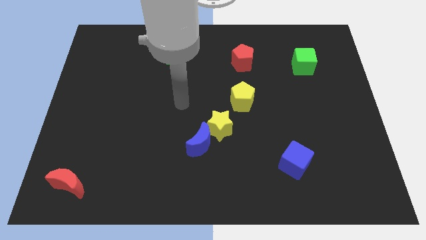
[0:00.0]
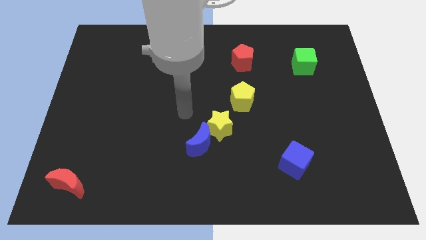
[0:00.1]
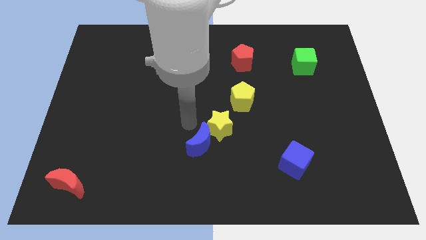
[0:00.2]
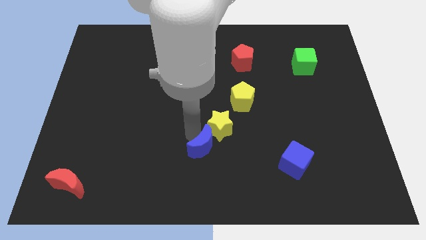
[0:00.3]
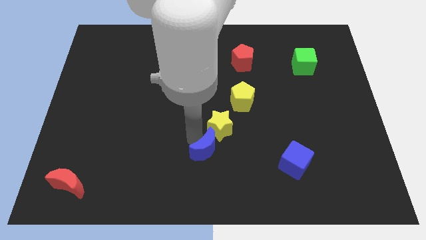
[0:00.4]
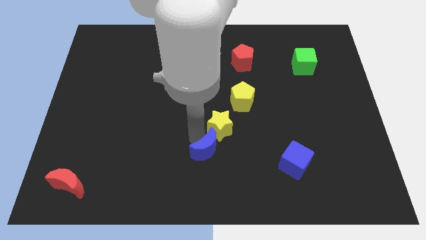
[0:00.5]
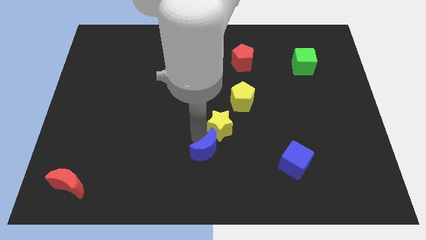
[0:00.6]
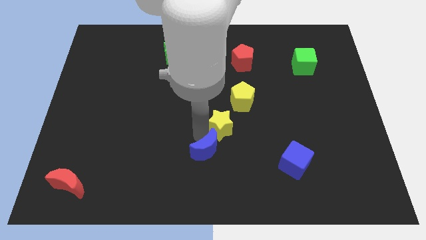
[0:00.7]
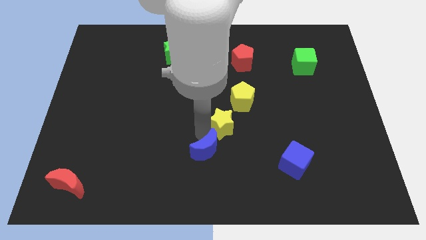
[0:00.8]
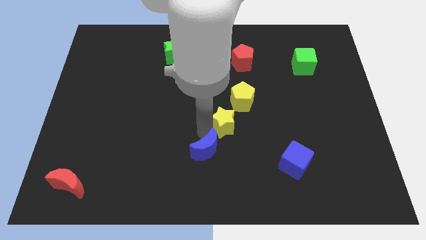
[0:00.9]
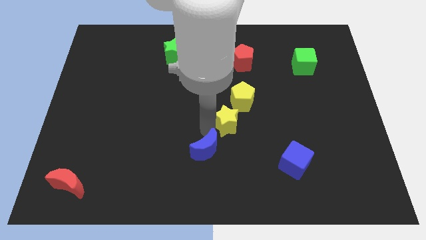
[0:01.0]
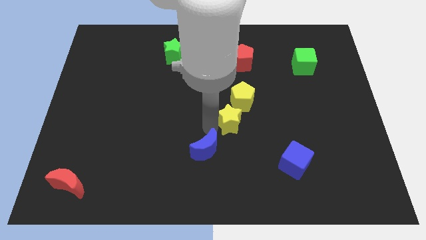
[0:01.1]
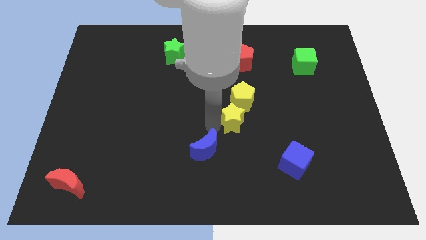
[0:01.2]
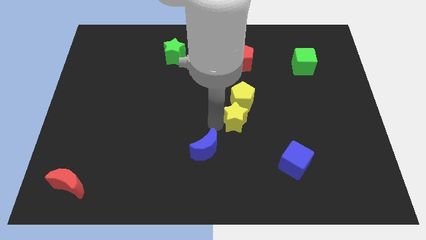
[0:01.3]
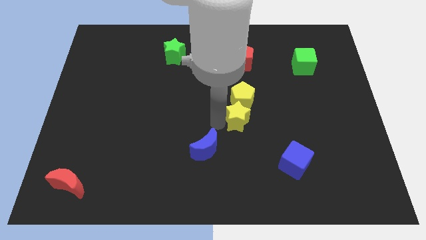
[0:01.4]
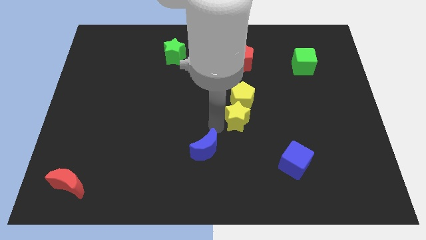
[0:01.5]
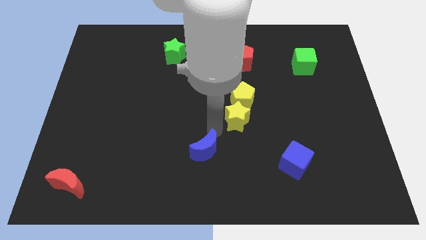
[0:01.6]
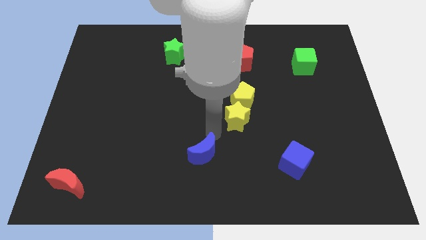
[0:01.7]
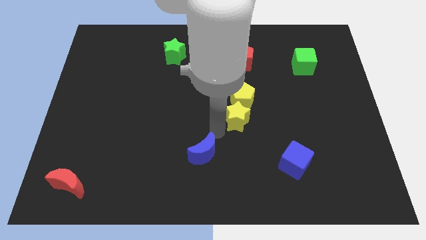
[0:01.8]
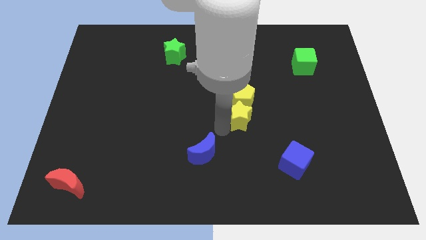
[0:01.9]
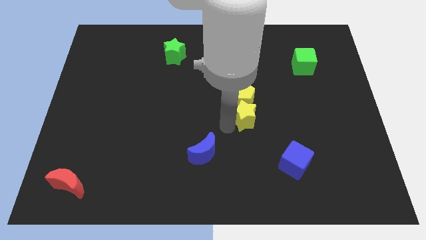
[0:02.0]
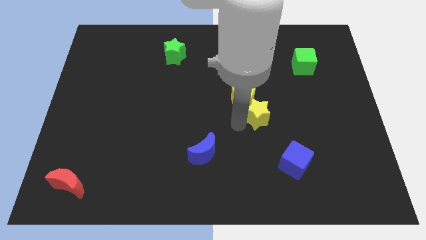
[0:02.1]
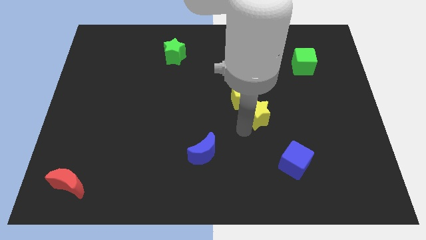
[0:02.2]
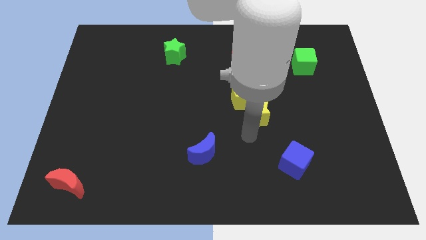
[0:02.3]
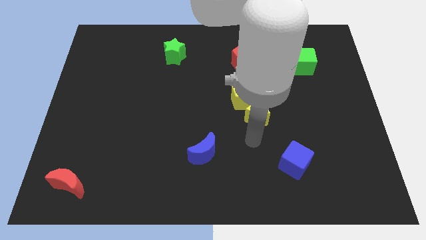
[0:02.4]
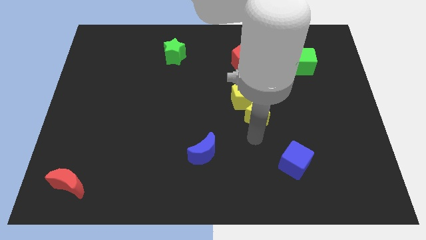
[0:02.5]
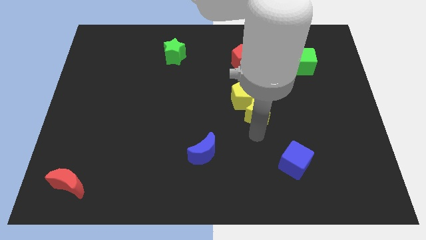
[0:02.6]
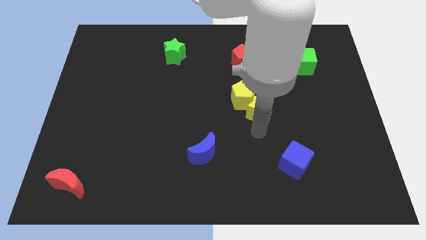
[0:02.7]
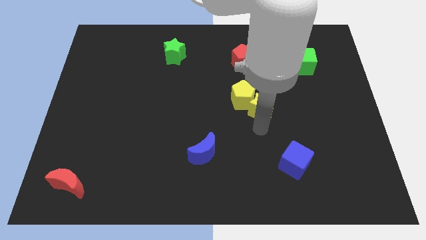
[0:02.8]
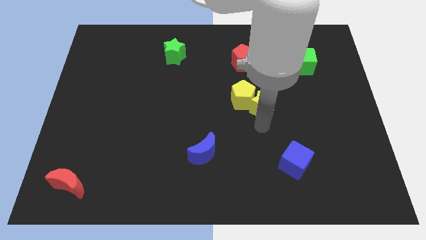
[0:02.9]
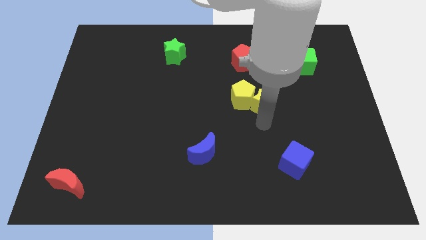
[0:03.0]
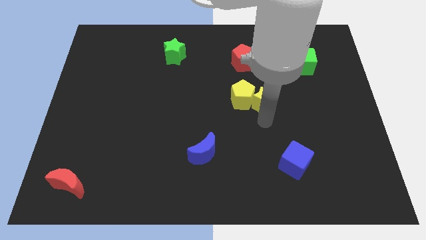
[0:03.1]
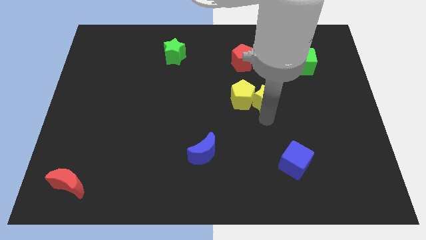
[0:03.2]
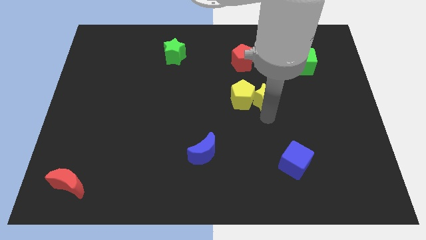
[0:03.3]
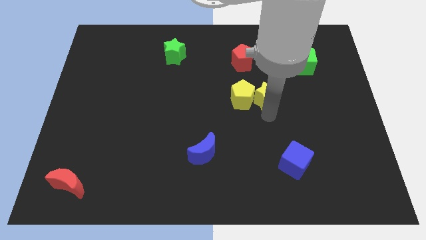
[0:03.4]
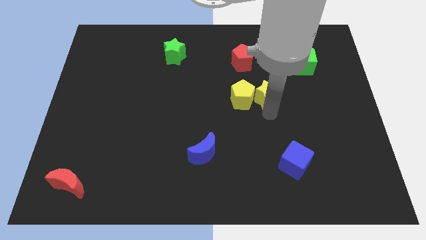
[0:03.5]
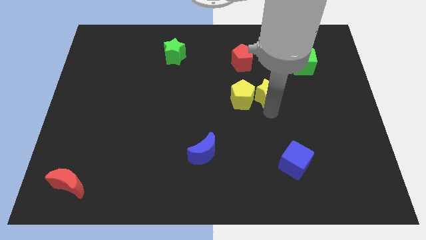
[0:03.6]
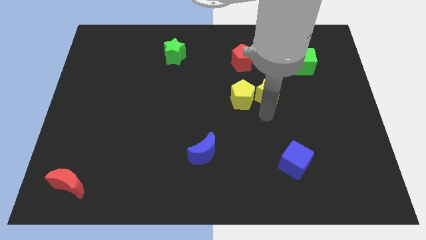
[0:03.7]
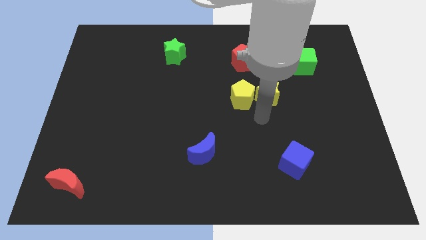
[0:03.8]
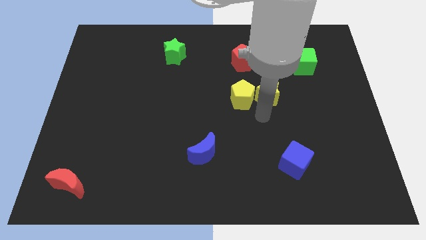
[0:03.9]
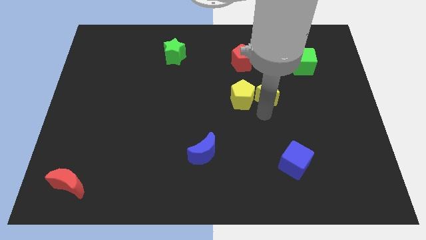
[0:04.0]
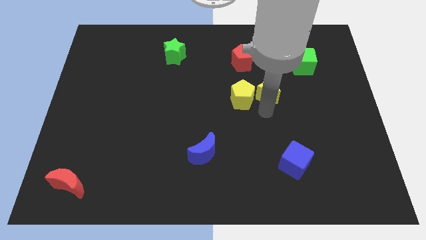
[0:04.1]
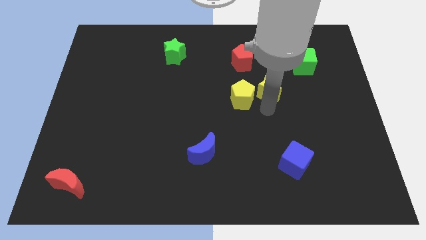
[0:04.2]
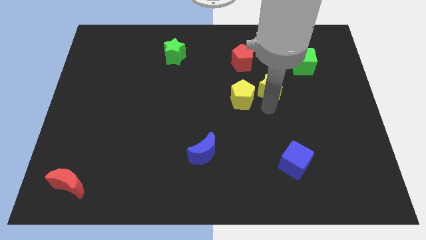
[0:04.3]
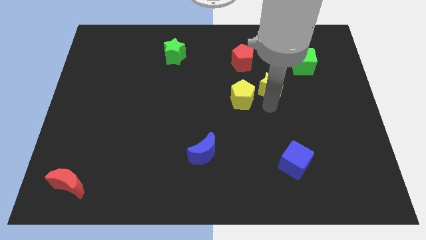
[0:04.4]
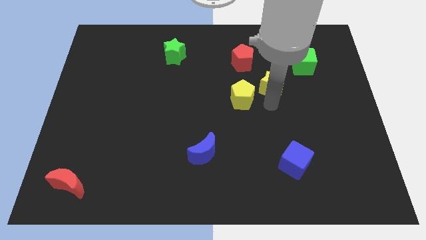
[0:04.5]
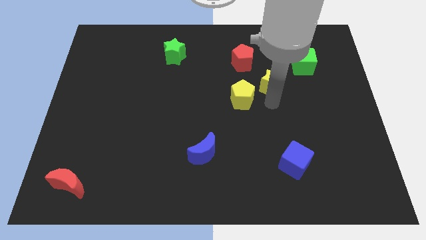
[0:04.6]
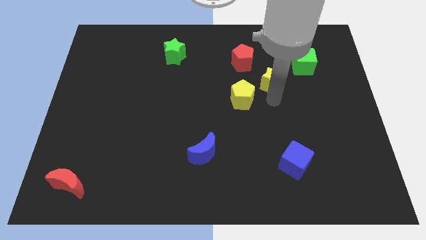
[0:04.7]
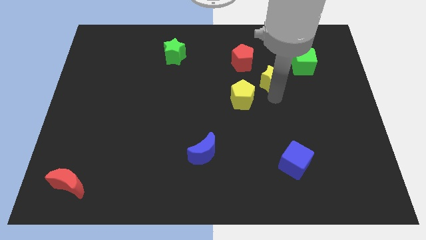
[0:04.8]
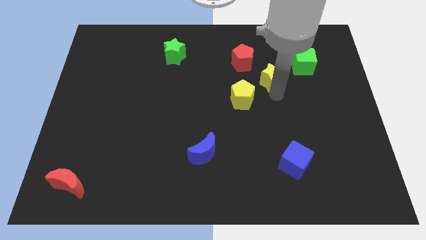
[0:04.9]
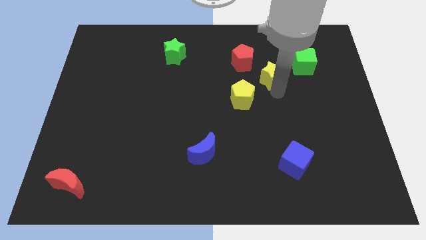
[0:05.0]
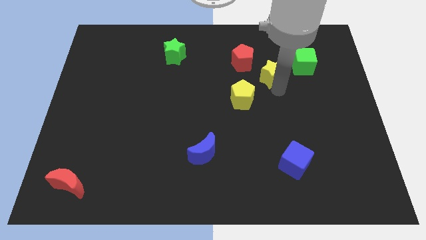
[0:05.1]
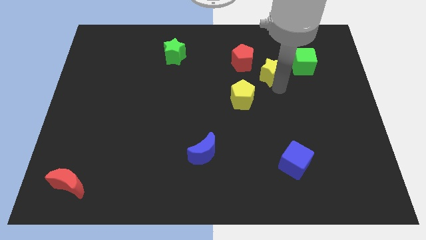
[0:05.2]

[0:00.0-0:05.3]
put the yellow star to the right of the red pentagon

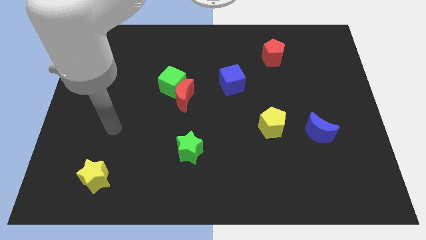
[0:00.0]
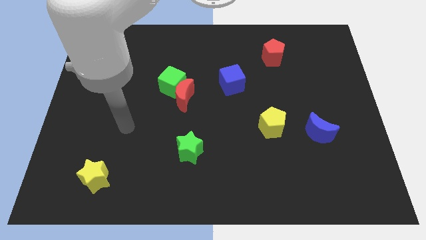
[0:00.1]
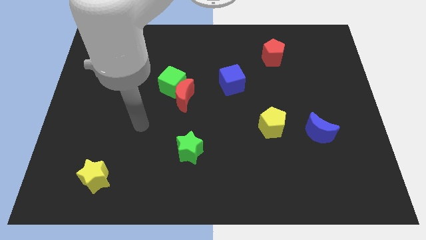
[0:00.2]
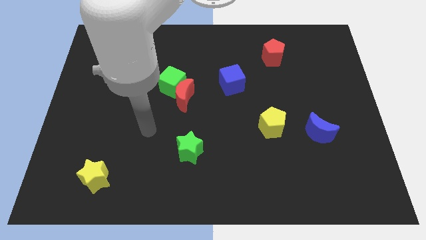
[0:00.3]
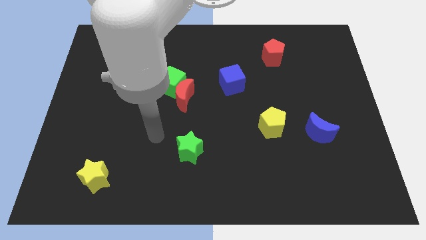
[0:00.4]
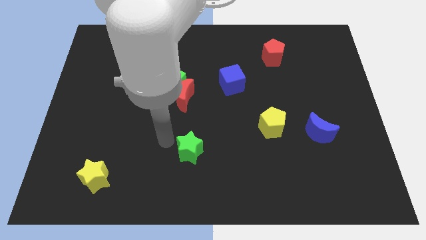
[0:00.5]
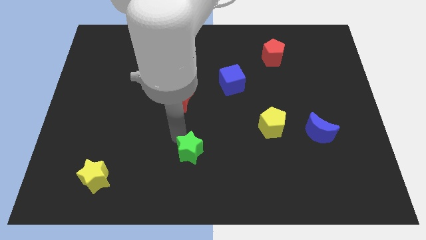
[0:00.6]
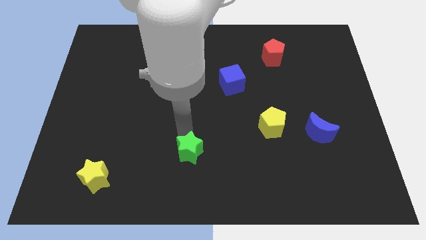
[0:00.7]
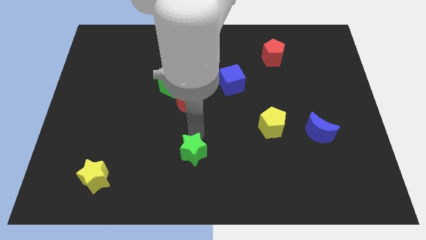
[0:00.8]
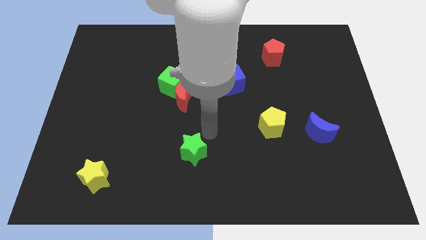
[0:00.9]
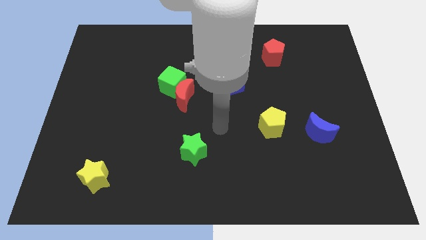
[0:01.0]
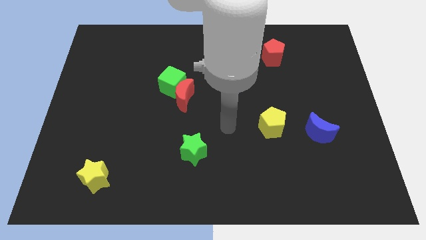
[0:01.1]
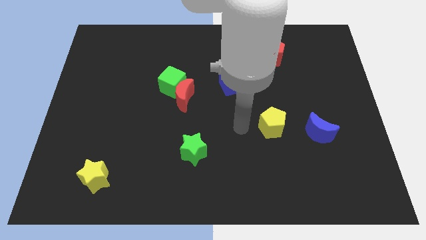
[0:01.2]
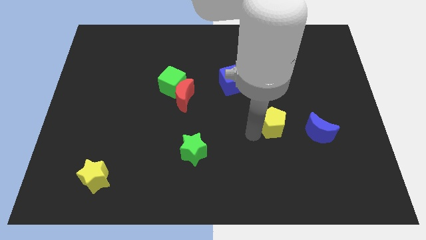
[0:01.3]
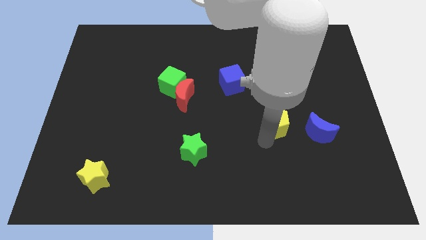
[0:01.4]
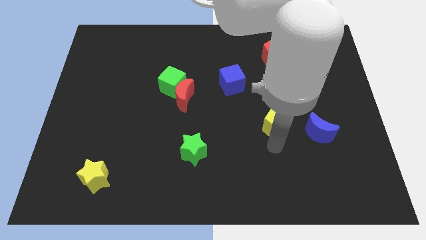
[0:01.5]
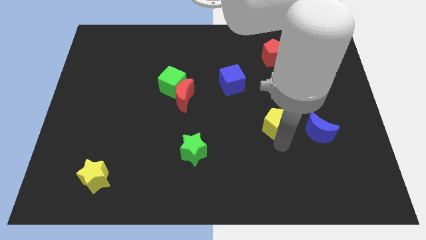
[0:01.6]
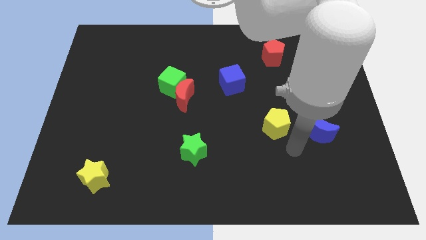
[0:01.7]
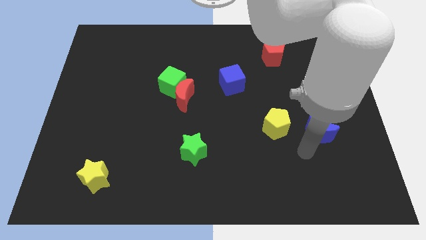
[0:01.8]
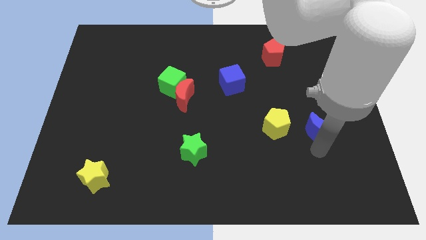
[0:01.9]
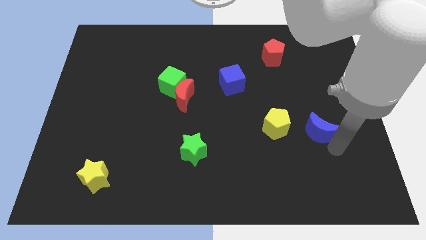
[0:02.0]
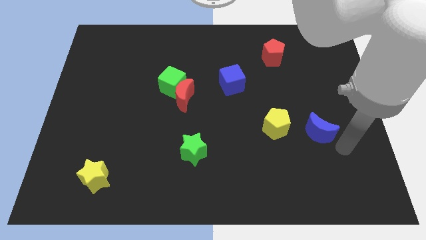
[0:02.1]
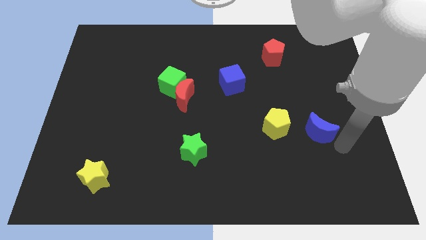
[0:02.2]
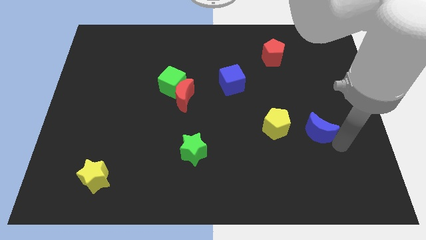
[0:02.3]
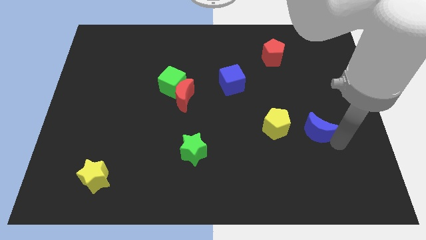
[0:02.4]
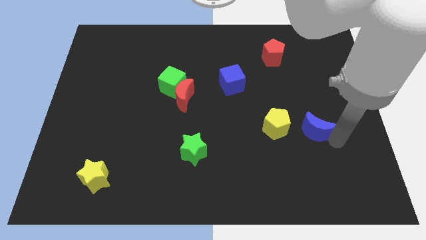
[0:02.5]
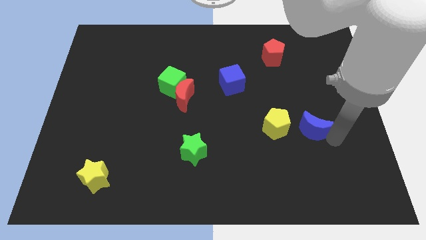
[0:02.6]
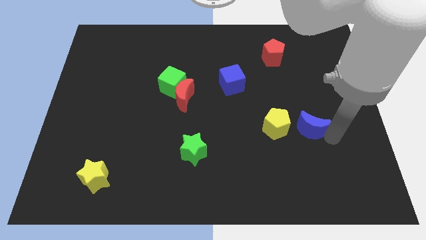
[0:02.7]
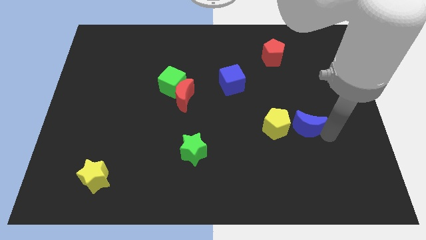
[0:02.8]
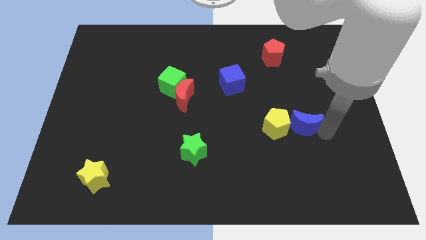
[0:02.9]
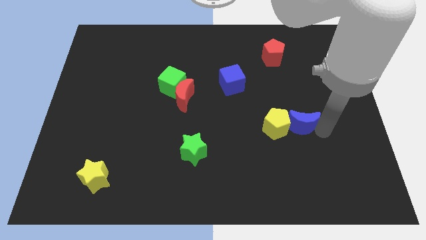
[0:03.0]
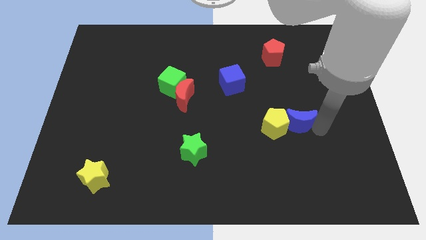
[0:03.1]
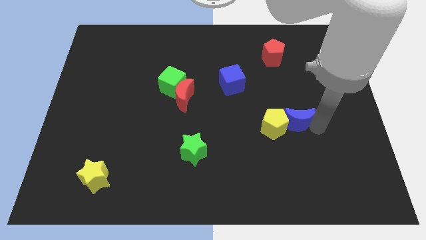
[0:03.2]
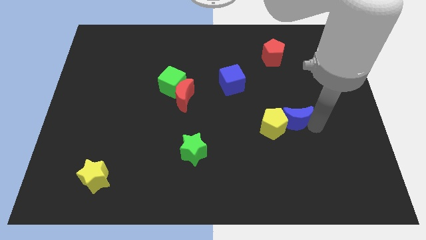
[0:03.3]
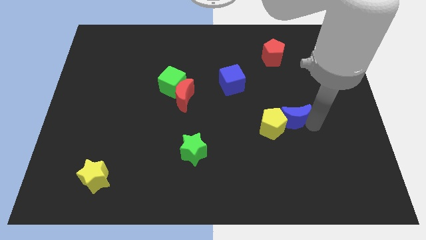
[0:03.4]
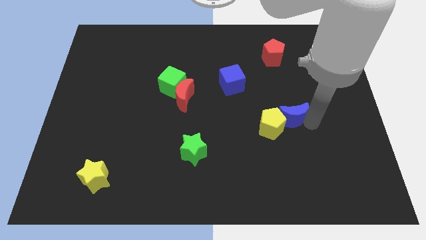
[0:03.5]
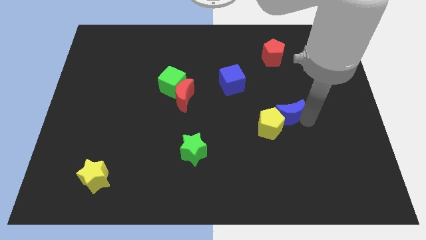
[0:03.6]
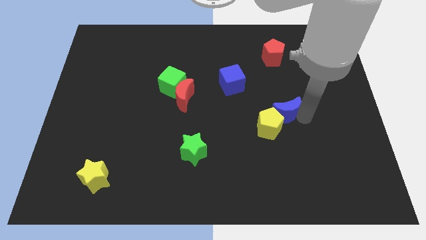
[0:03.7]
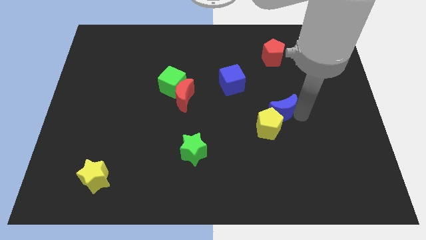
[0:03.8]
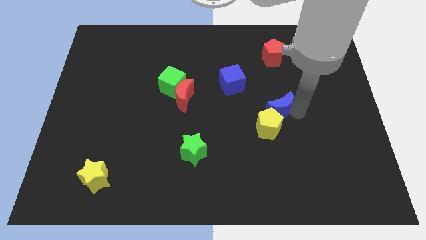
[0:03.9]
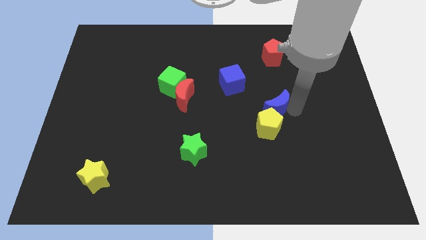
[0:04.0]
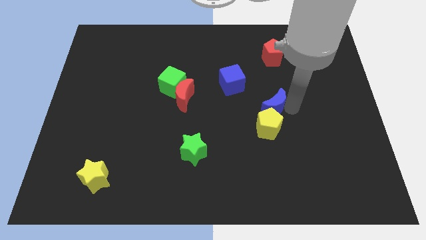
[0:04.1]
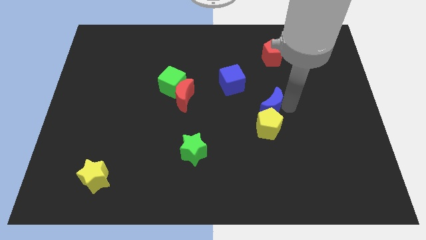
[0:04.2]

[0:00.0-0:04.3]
push the blue moon to the top left side of the yellow pentagon
